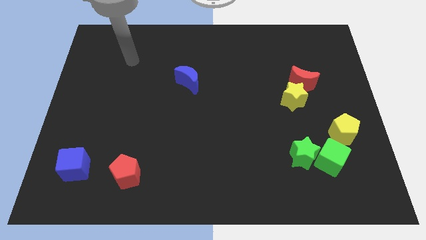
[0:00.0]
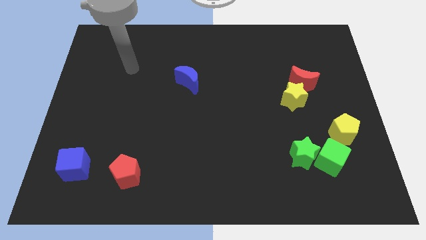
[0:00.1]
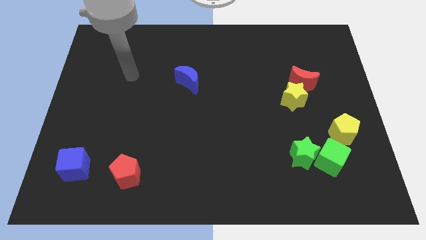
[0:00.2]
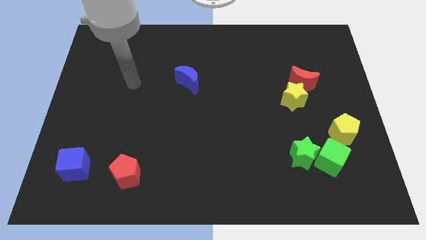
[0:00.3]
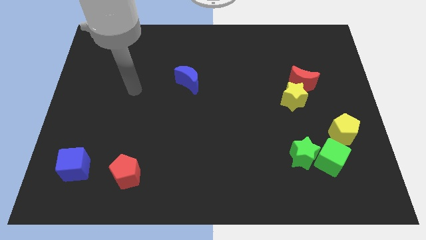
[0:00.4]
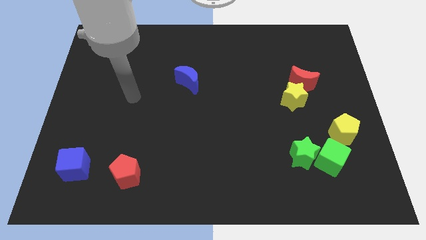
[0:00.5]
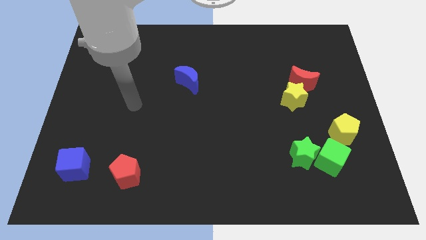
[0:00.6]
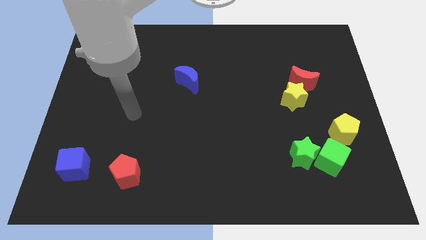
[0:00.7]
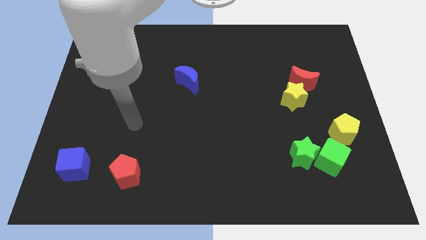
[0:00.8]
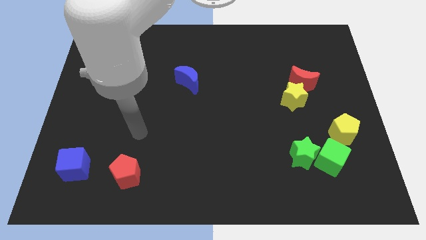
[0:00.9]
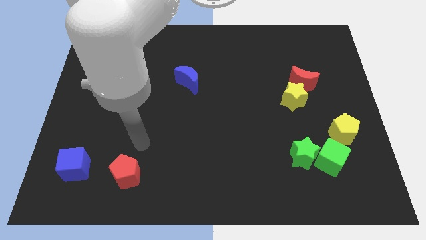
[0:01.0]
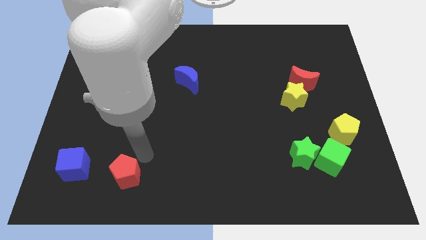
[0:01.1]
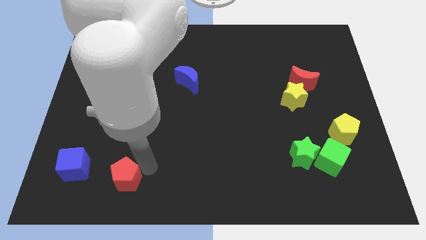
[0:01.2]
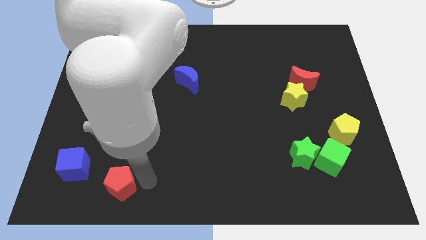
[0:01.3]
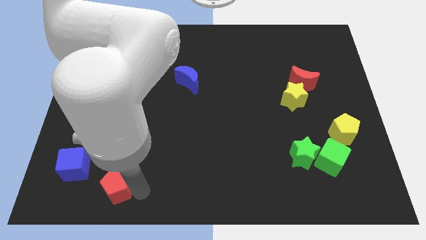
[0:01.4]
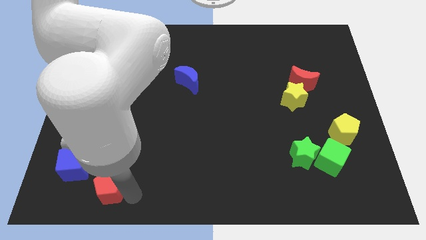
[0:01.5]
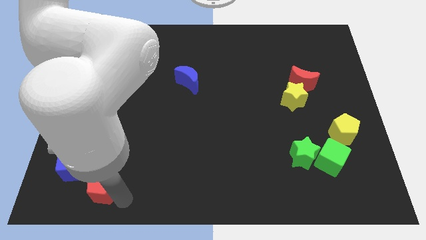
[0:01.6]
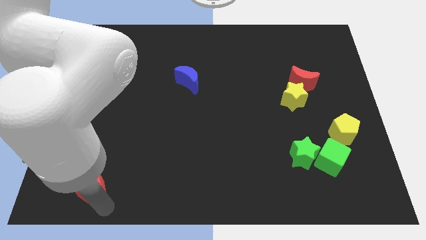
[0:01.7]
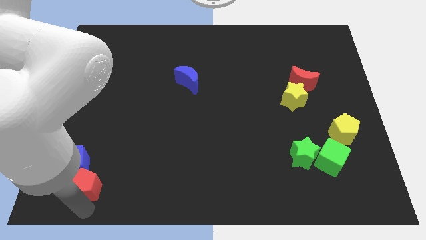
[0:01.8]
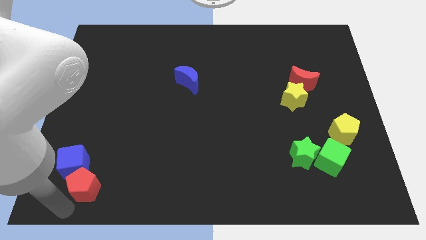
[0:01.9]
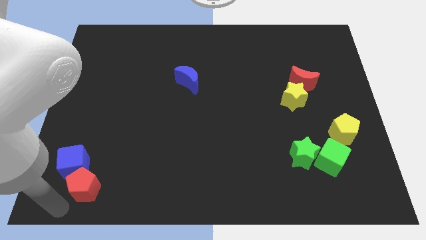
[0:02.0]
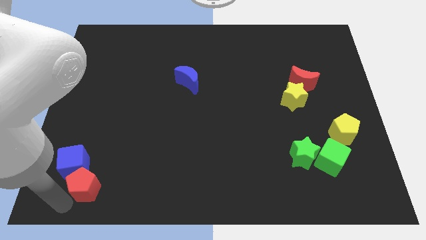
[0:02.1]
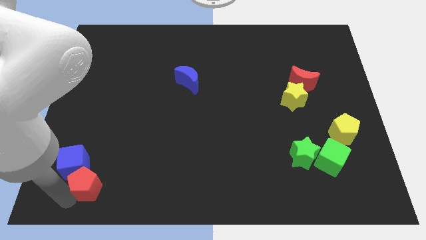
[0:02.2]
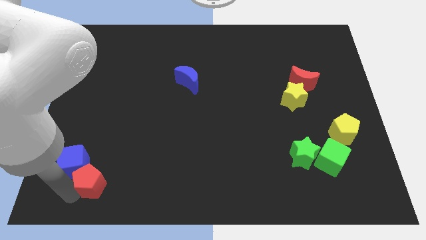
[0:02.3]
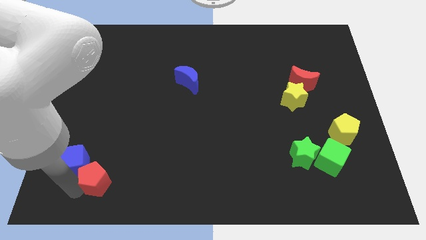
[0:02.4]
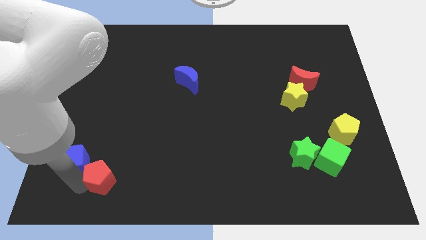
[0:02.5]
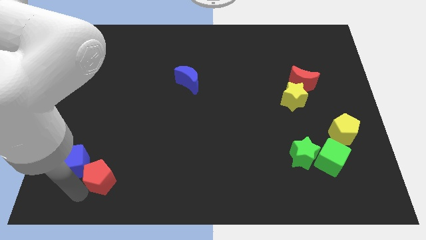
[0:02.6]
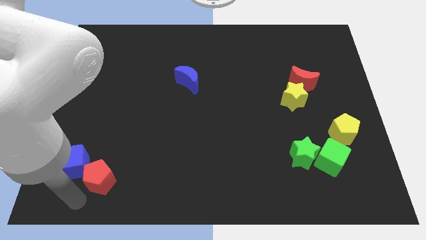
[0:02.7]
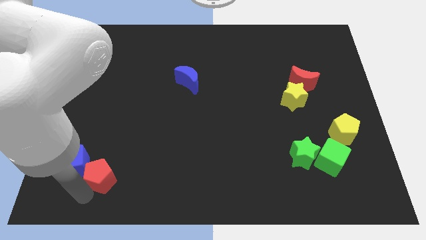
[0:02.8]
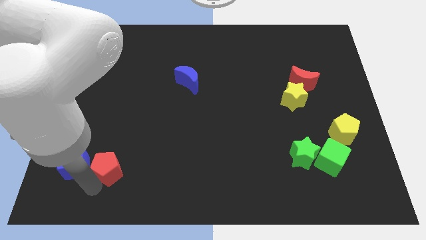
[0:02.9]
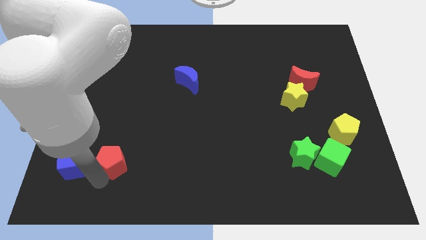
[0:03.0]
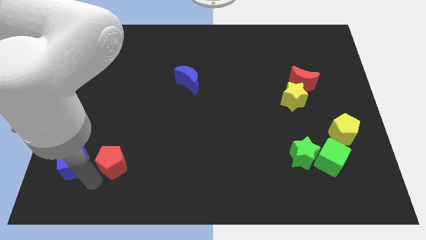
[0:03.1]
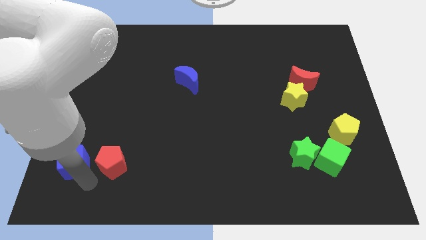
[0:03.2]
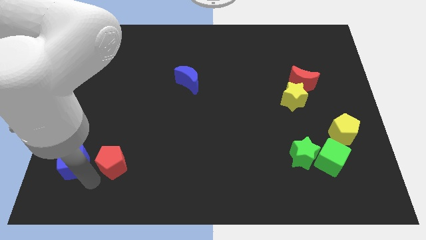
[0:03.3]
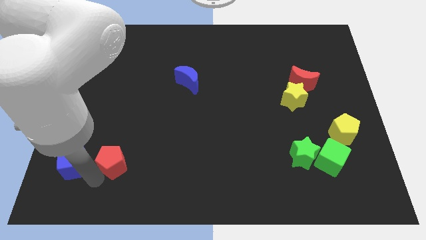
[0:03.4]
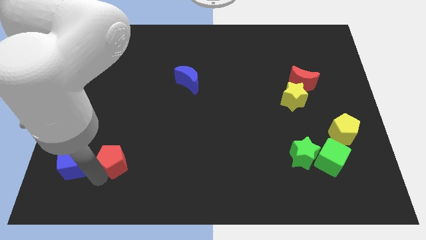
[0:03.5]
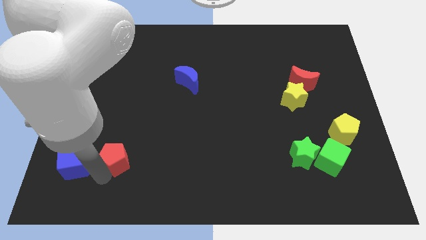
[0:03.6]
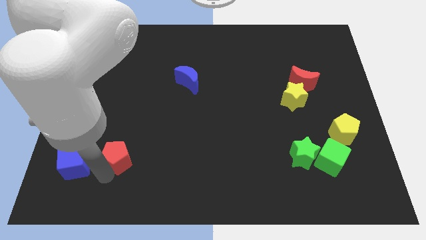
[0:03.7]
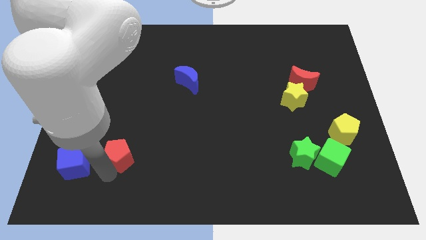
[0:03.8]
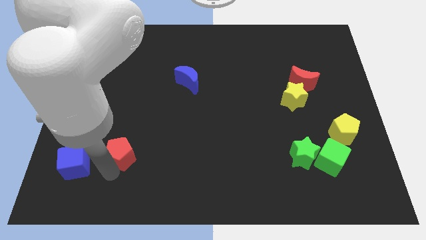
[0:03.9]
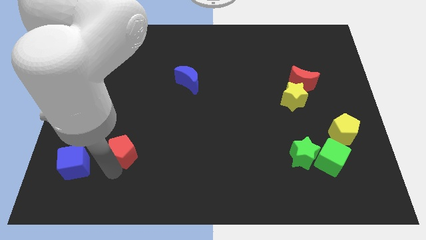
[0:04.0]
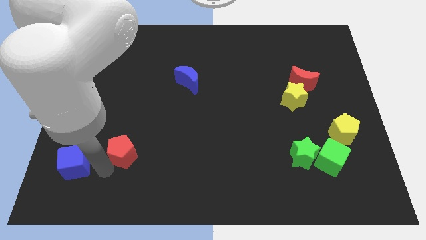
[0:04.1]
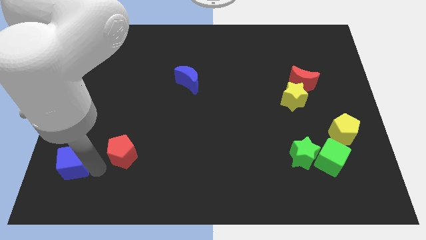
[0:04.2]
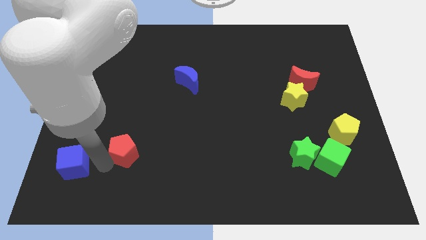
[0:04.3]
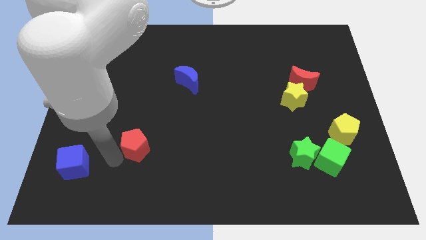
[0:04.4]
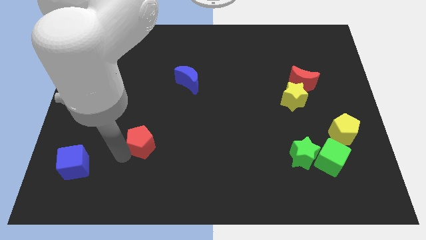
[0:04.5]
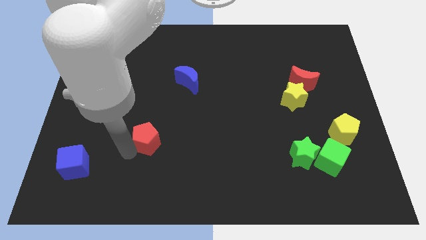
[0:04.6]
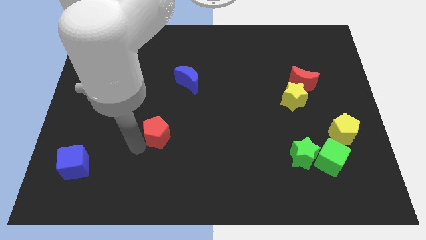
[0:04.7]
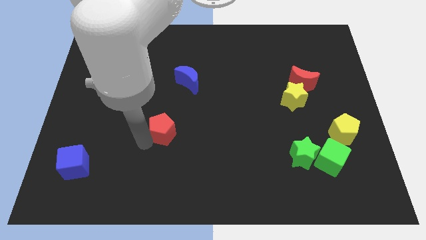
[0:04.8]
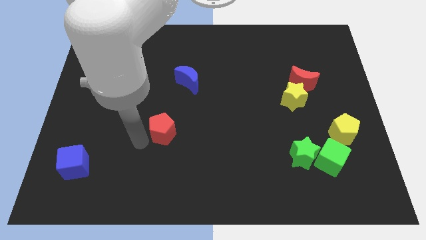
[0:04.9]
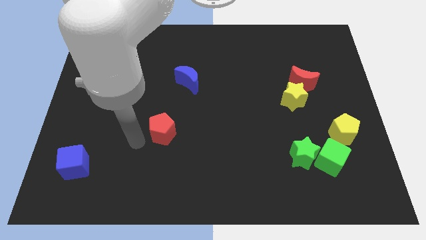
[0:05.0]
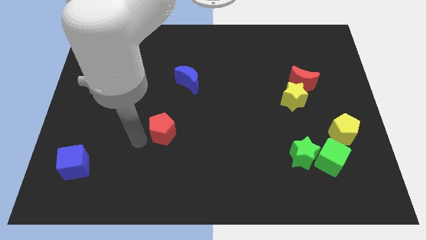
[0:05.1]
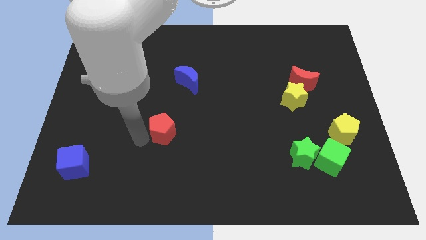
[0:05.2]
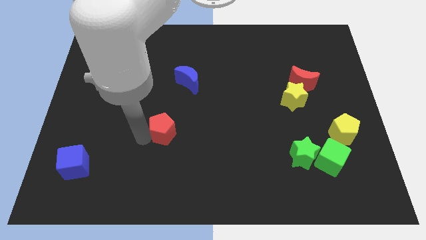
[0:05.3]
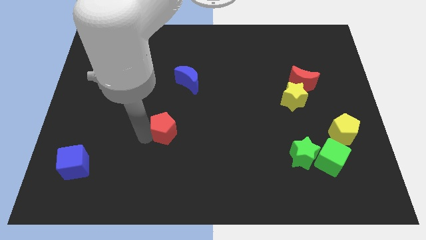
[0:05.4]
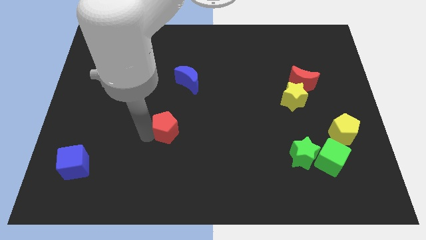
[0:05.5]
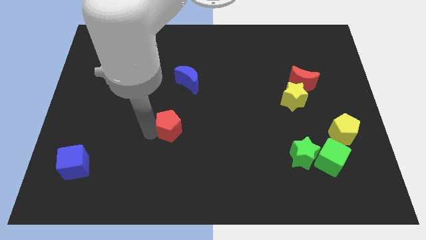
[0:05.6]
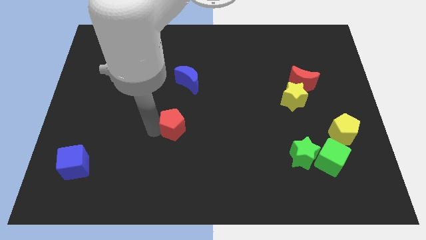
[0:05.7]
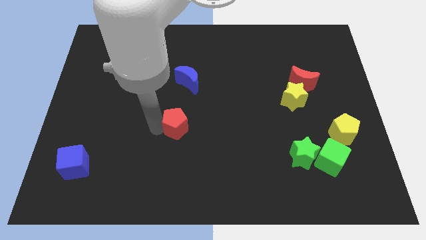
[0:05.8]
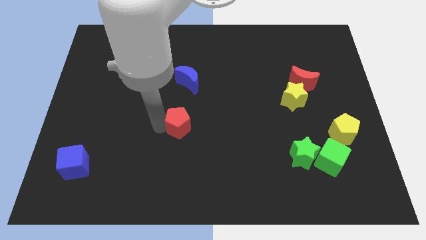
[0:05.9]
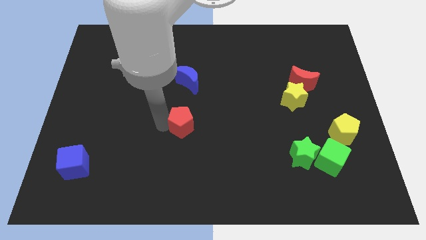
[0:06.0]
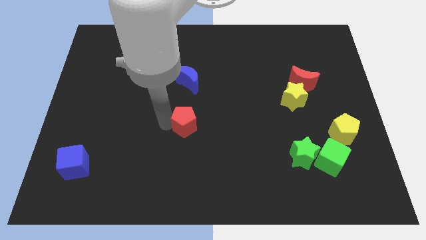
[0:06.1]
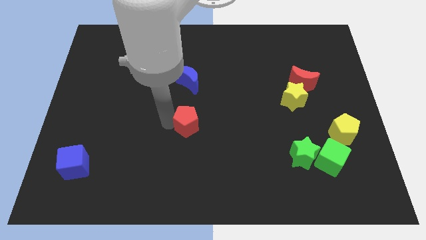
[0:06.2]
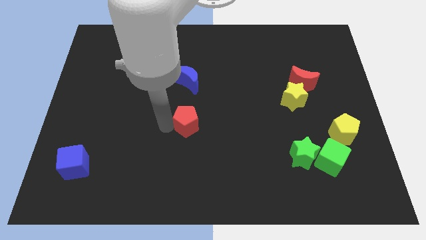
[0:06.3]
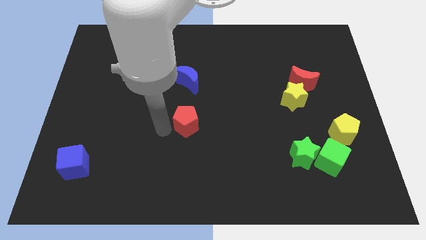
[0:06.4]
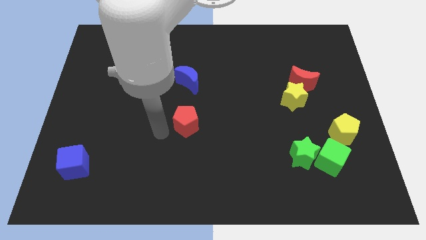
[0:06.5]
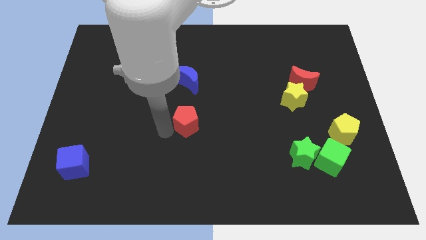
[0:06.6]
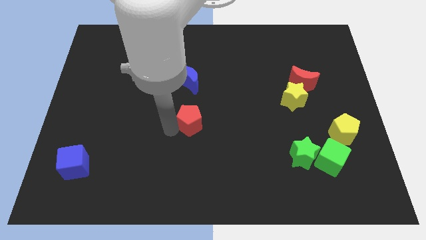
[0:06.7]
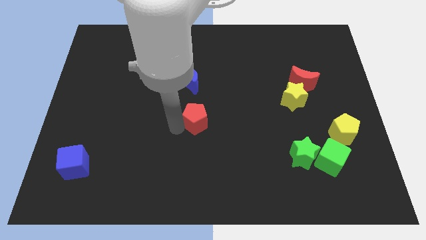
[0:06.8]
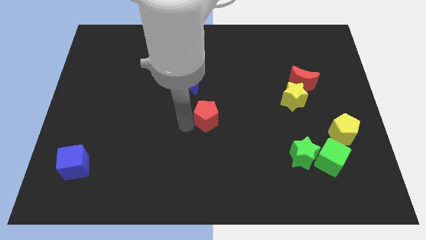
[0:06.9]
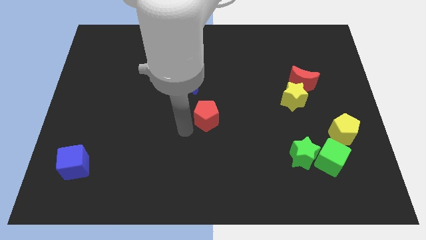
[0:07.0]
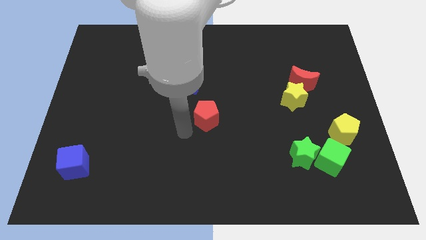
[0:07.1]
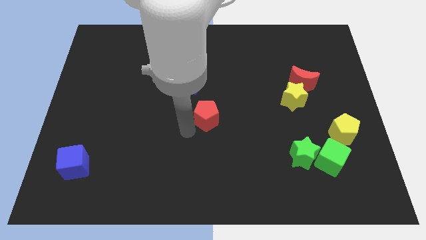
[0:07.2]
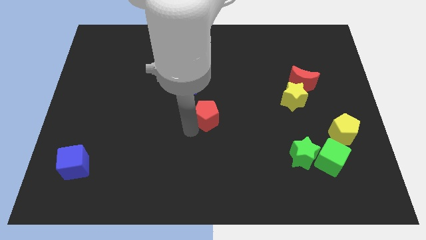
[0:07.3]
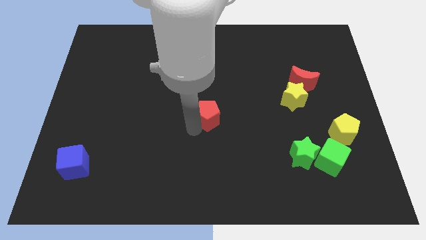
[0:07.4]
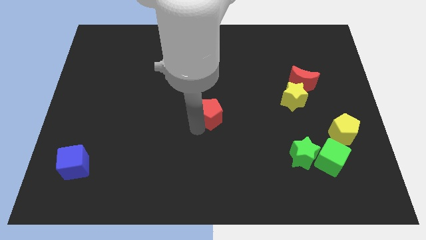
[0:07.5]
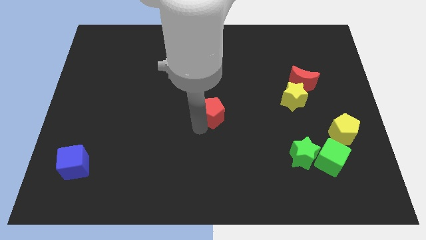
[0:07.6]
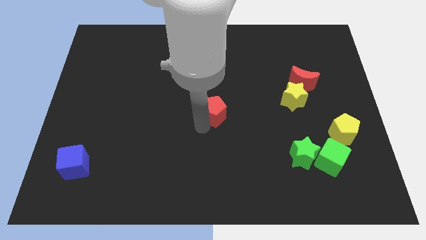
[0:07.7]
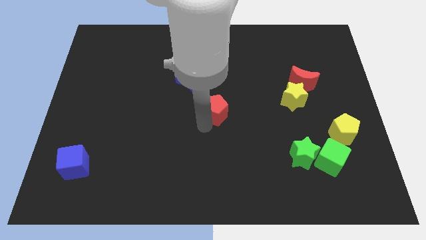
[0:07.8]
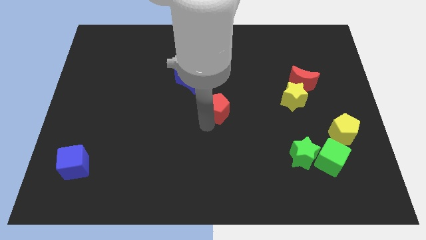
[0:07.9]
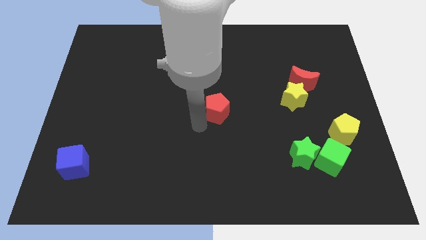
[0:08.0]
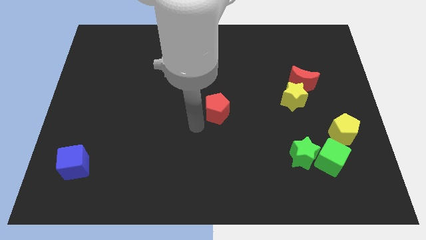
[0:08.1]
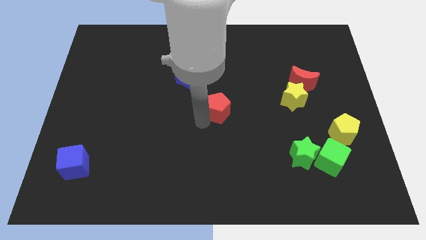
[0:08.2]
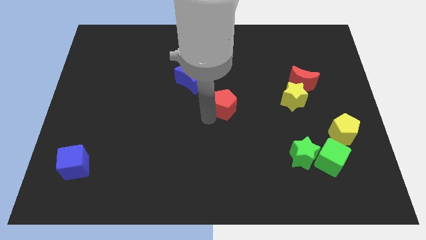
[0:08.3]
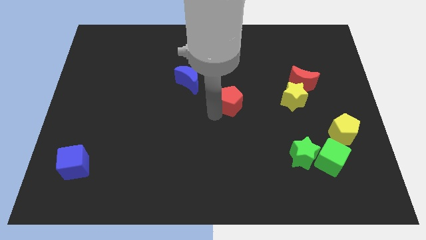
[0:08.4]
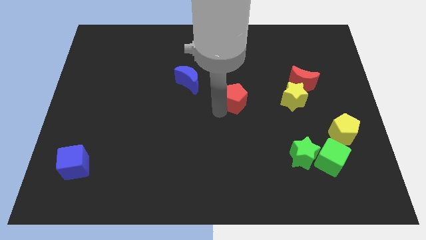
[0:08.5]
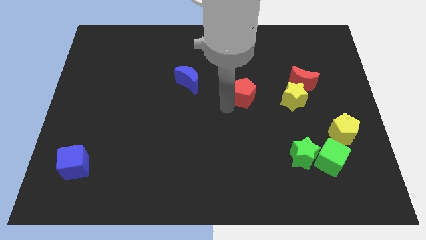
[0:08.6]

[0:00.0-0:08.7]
slide the red pentagon left of the red moon
